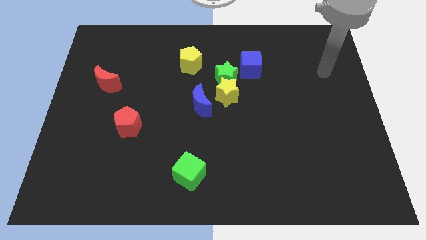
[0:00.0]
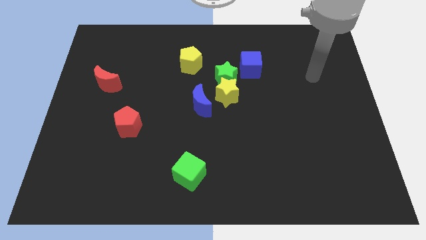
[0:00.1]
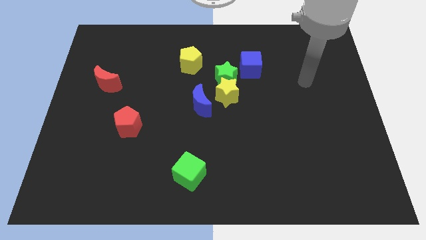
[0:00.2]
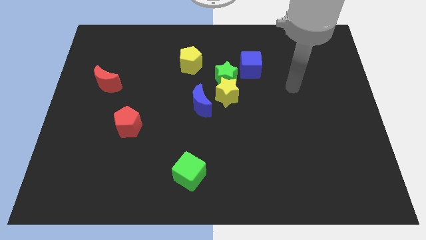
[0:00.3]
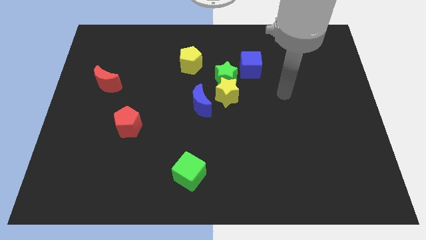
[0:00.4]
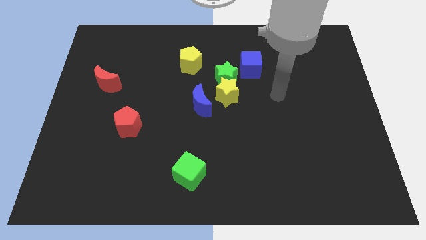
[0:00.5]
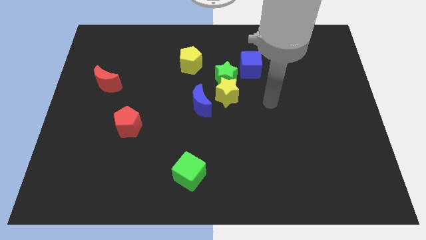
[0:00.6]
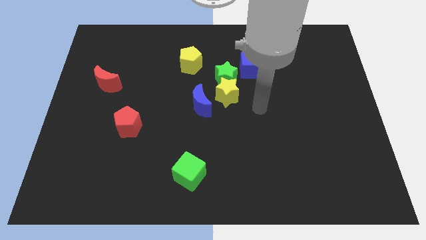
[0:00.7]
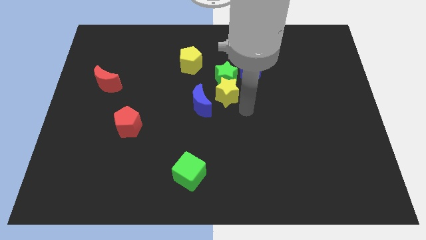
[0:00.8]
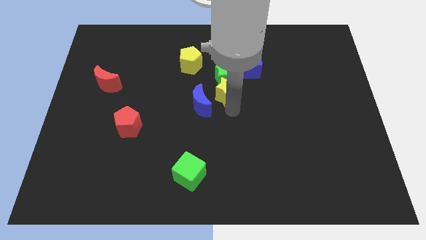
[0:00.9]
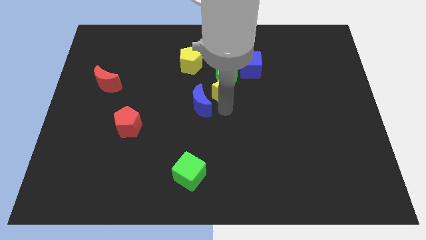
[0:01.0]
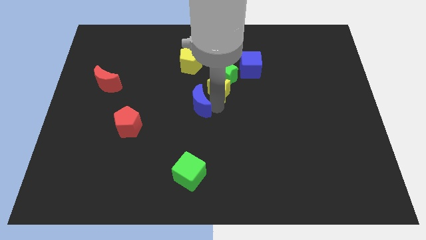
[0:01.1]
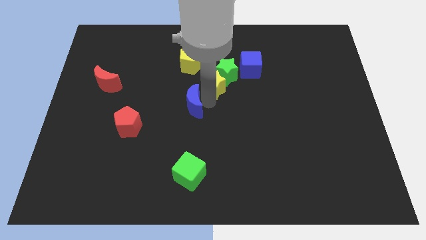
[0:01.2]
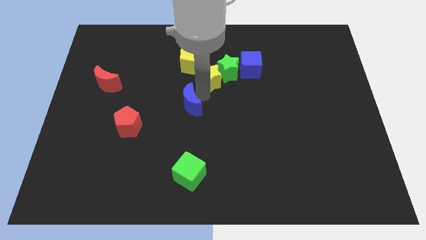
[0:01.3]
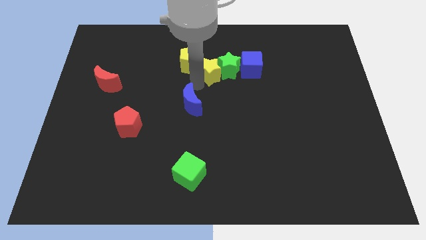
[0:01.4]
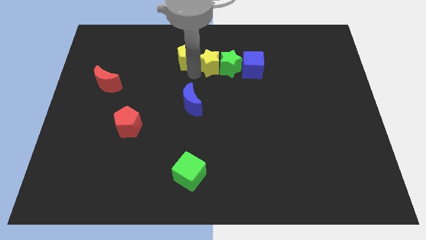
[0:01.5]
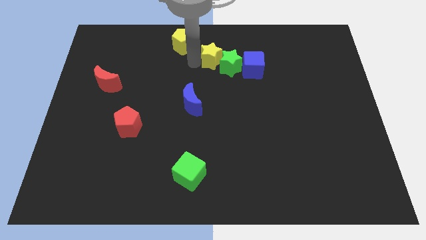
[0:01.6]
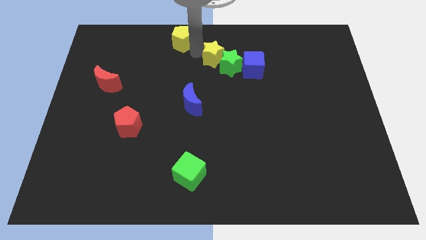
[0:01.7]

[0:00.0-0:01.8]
pull the yellow star apart from the green star and blue moon

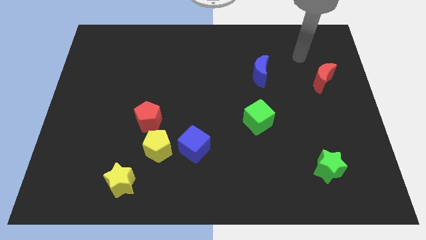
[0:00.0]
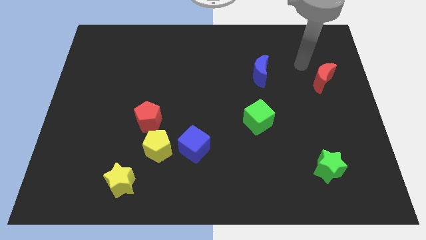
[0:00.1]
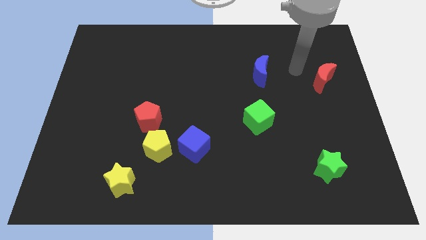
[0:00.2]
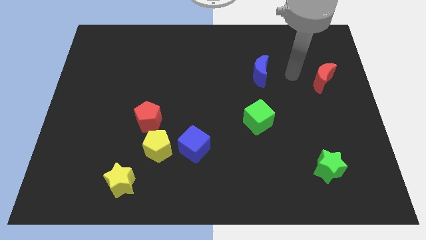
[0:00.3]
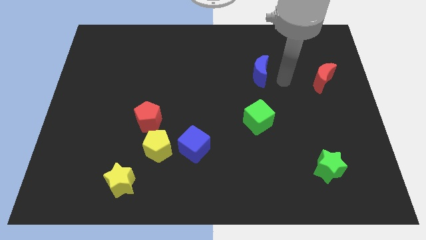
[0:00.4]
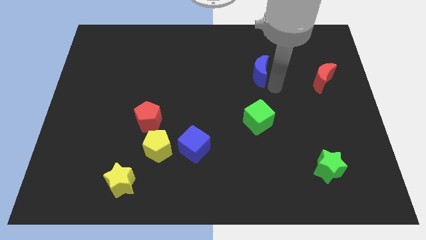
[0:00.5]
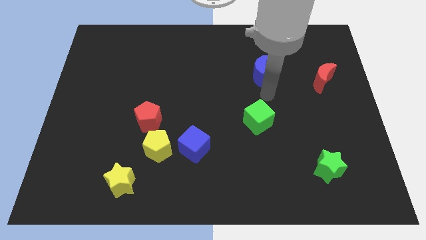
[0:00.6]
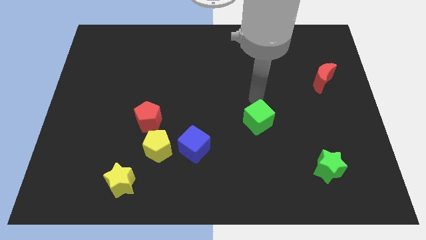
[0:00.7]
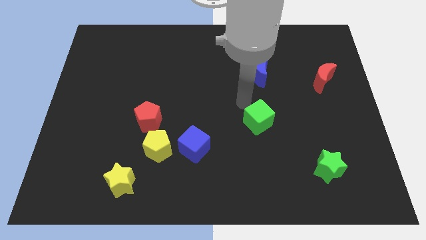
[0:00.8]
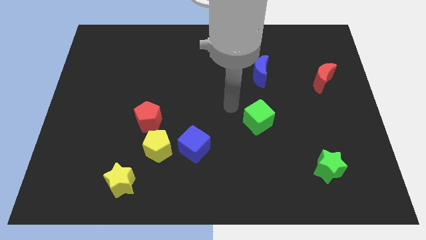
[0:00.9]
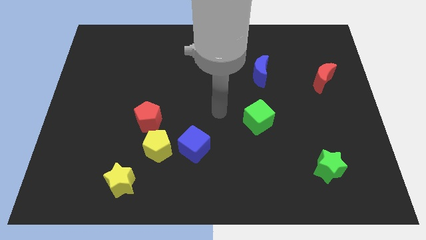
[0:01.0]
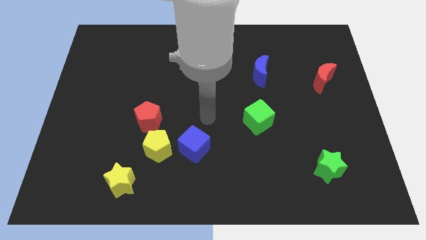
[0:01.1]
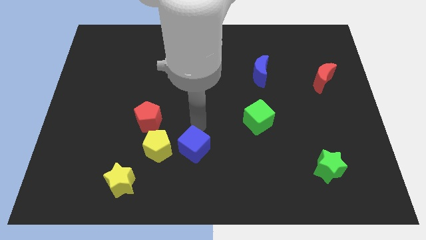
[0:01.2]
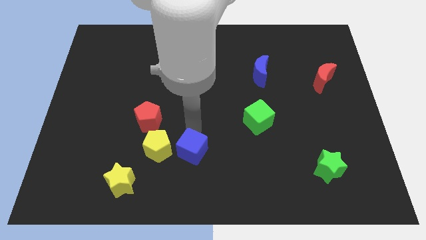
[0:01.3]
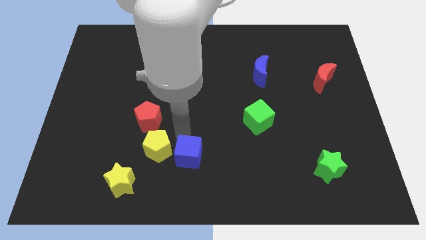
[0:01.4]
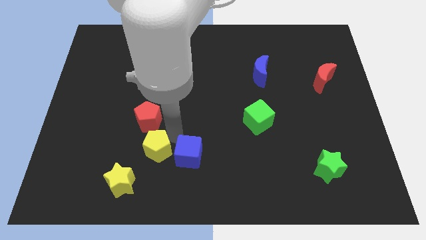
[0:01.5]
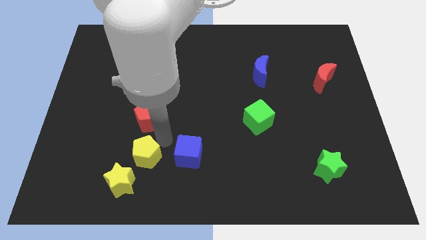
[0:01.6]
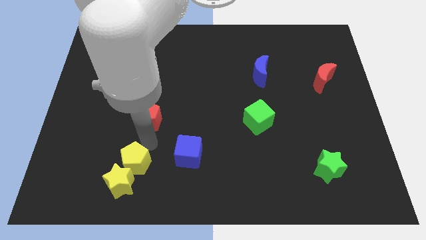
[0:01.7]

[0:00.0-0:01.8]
separate the red pentagon from the yellow pentagon

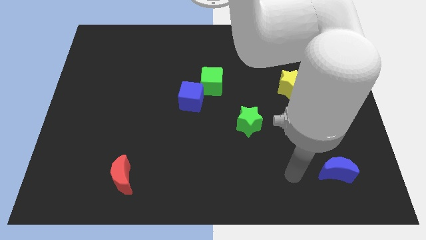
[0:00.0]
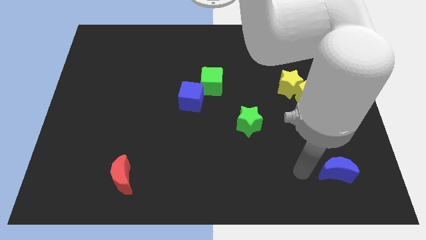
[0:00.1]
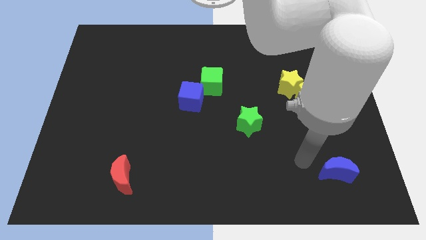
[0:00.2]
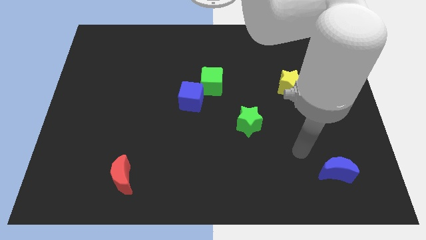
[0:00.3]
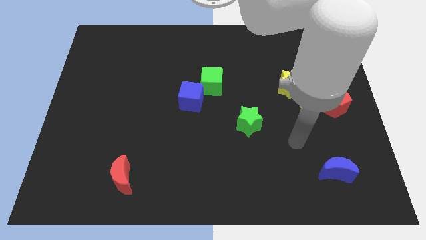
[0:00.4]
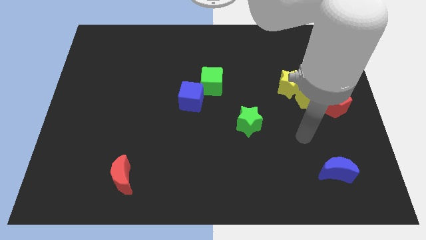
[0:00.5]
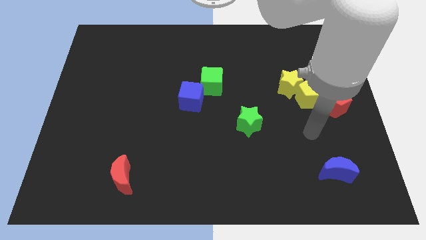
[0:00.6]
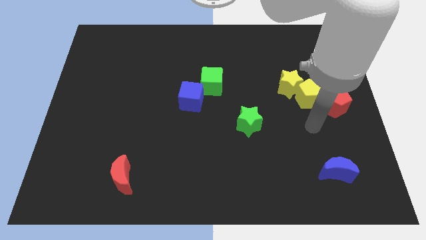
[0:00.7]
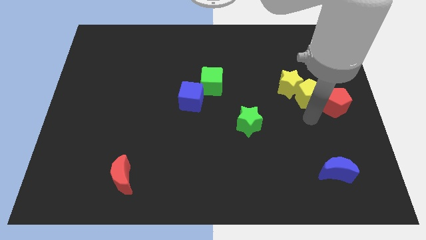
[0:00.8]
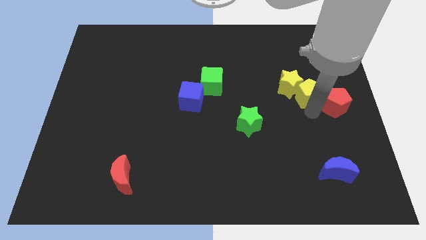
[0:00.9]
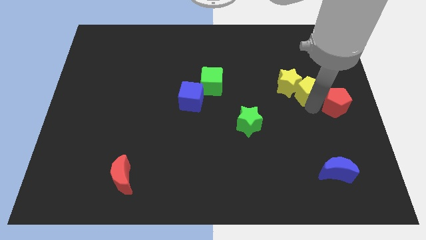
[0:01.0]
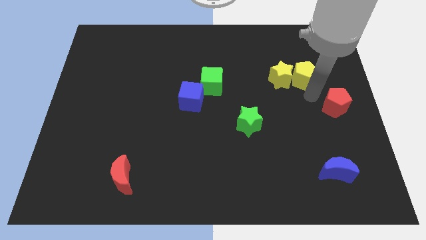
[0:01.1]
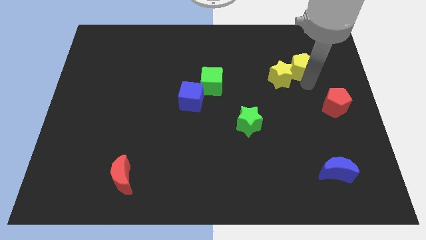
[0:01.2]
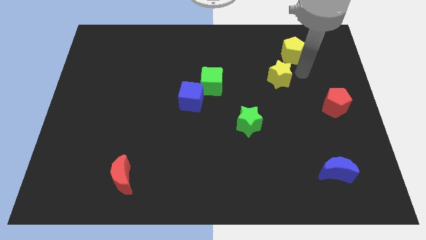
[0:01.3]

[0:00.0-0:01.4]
separate the yellow star from the yellow pentagon

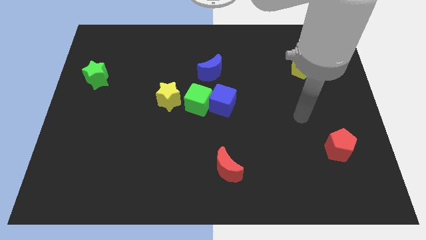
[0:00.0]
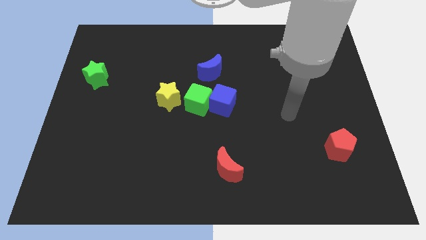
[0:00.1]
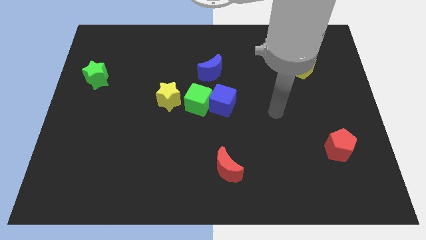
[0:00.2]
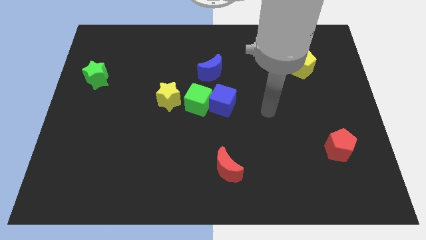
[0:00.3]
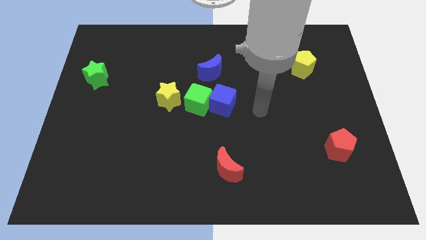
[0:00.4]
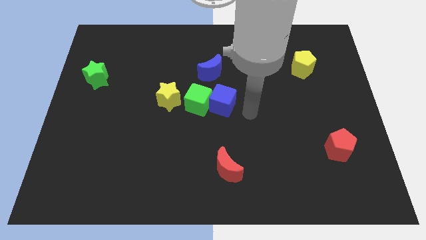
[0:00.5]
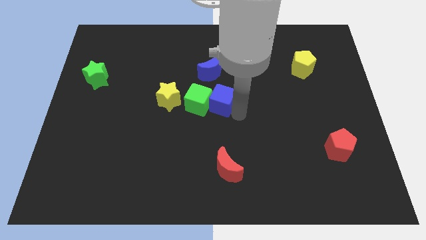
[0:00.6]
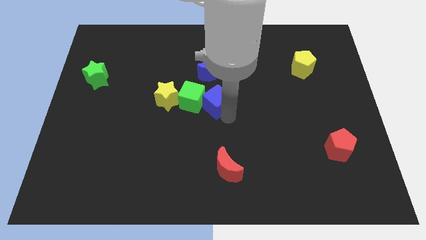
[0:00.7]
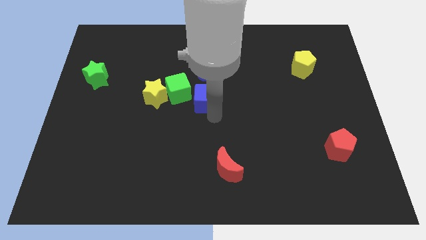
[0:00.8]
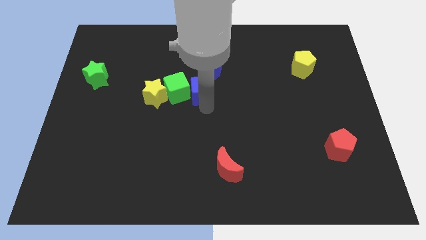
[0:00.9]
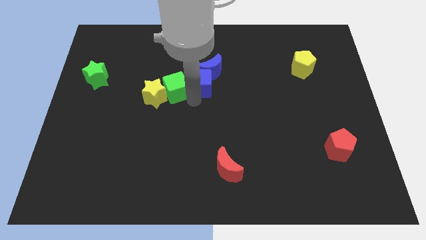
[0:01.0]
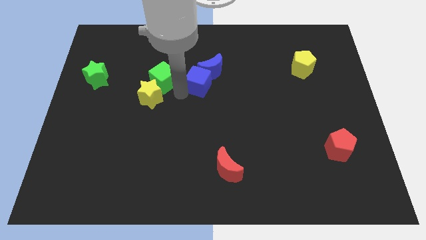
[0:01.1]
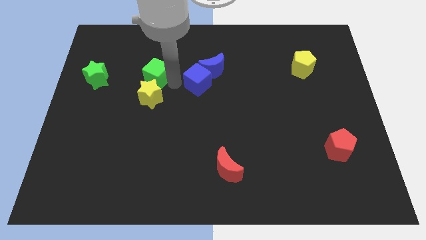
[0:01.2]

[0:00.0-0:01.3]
pull the blue cube apart from the green cube

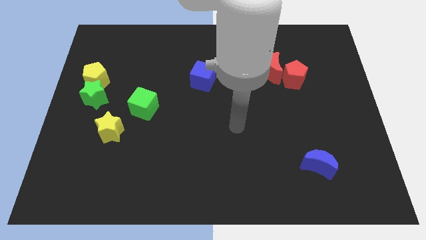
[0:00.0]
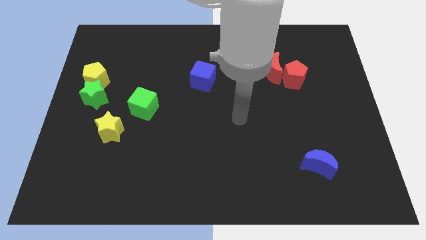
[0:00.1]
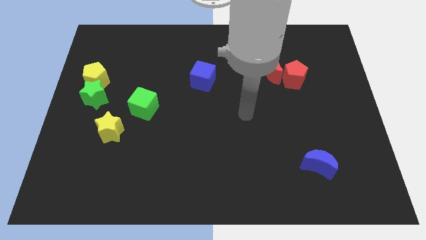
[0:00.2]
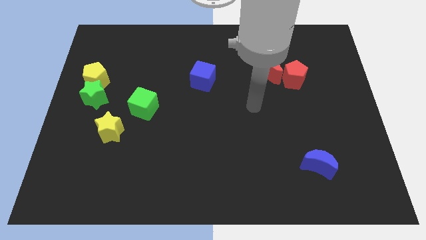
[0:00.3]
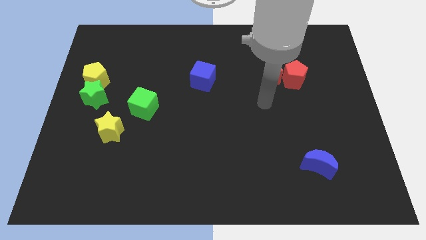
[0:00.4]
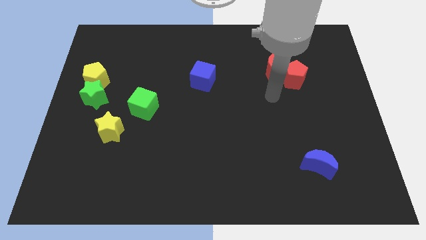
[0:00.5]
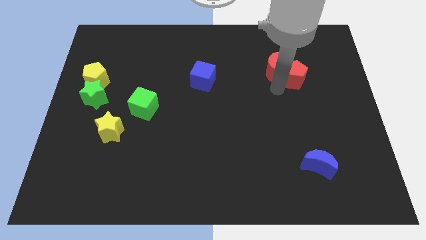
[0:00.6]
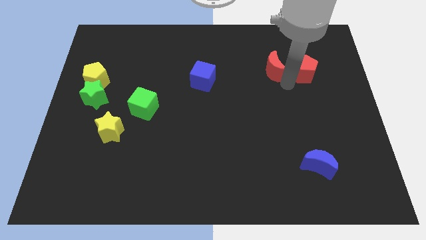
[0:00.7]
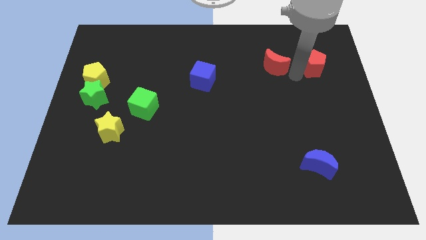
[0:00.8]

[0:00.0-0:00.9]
separate the red moon from the red pentagon

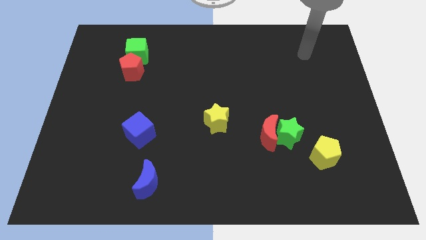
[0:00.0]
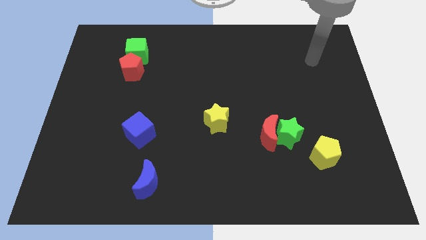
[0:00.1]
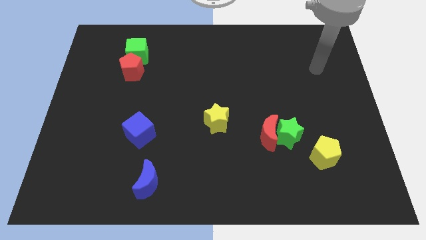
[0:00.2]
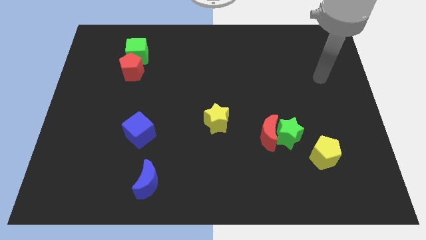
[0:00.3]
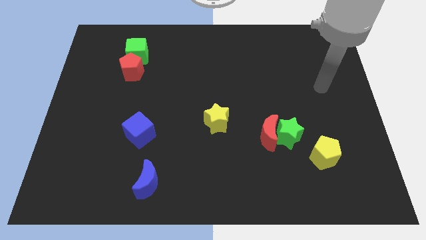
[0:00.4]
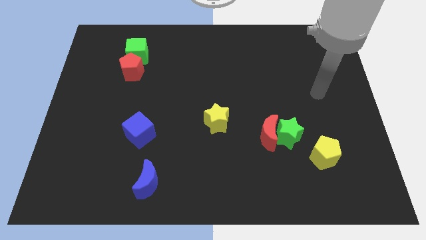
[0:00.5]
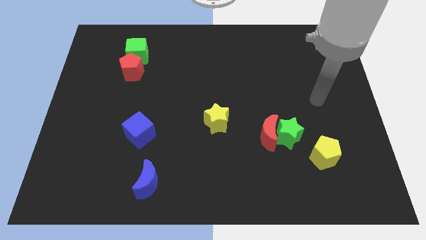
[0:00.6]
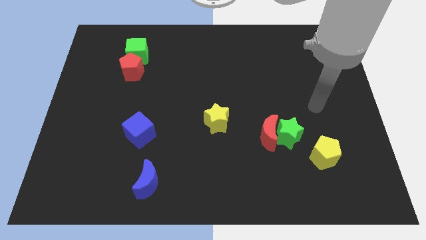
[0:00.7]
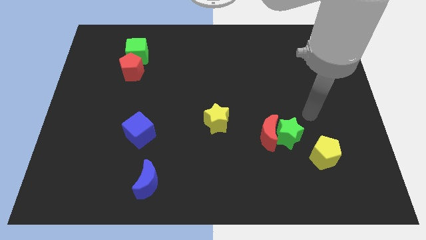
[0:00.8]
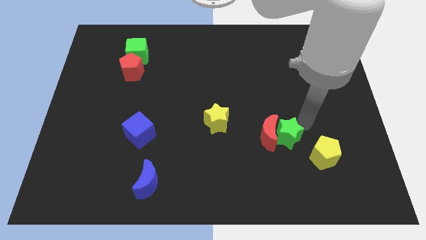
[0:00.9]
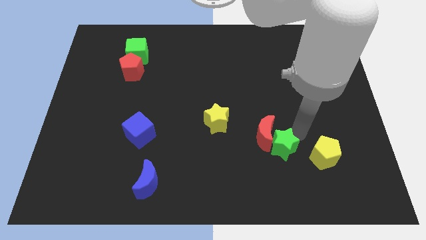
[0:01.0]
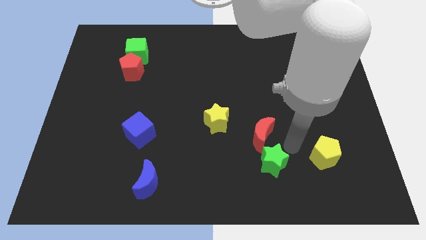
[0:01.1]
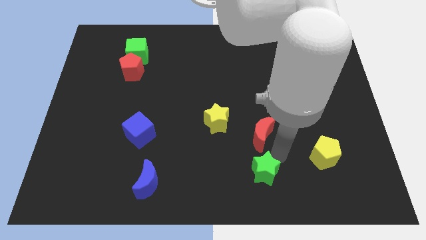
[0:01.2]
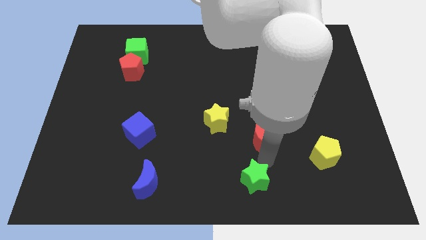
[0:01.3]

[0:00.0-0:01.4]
separate the red moon from the green star

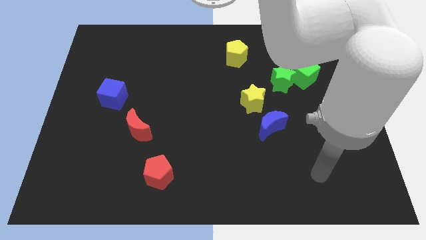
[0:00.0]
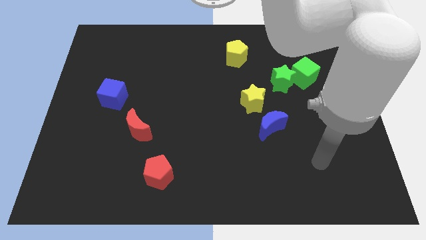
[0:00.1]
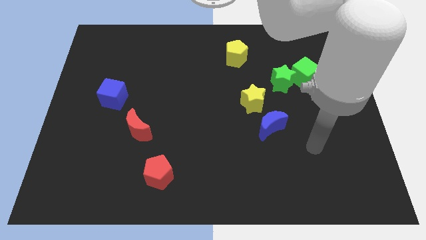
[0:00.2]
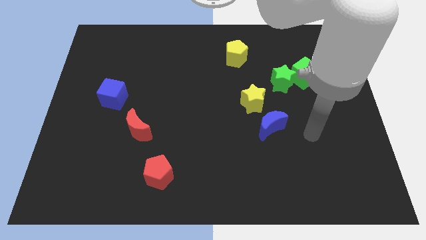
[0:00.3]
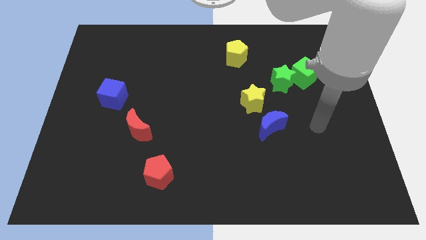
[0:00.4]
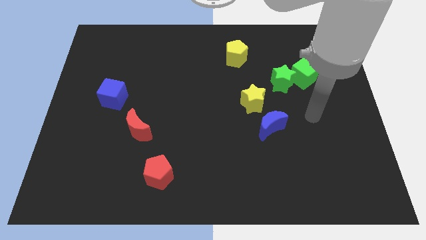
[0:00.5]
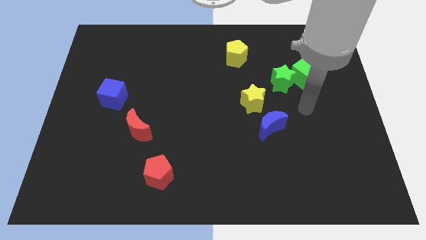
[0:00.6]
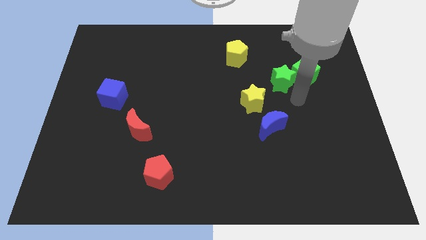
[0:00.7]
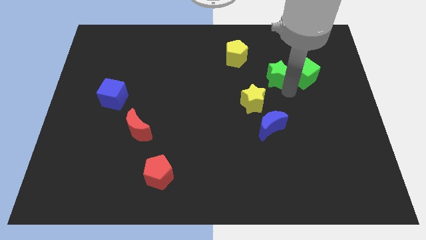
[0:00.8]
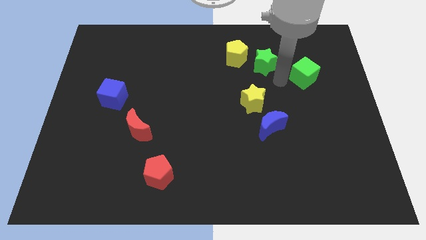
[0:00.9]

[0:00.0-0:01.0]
separate the green cube from the green star
